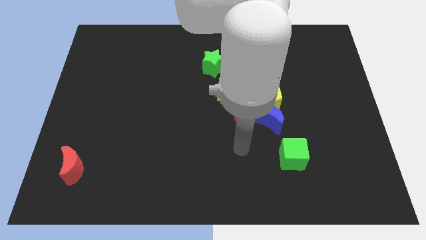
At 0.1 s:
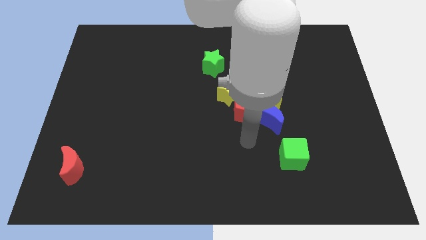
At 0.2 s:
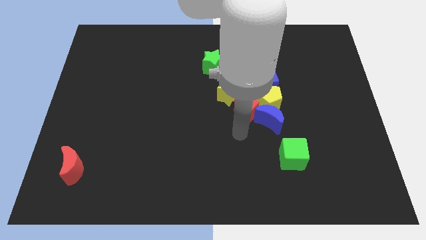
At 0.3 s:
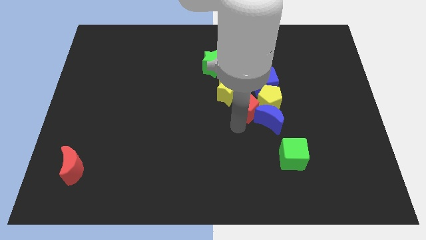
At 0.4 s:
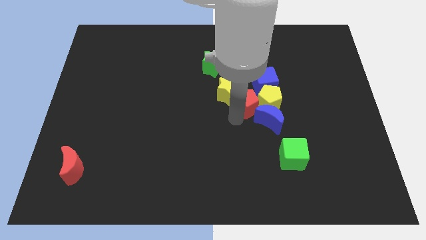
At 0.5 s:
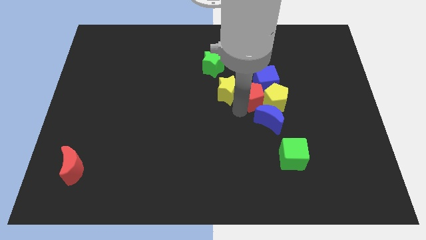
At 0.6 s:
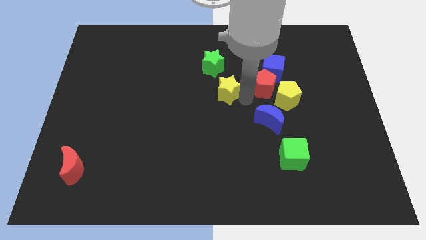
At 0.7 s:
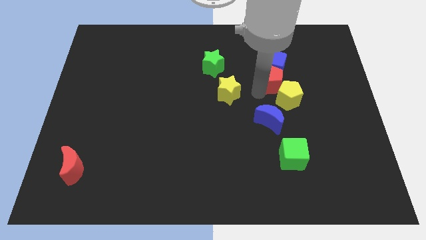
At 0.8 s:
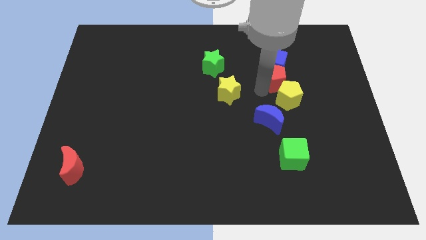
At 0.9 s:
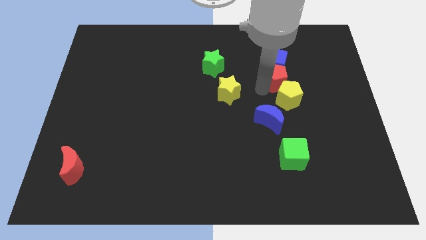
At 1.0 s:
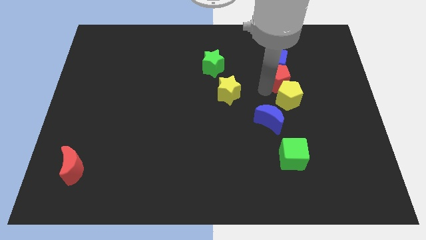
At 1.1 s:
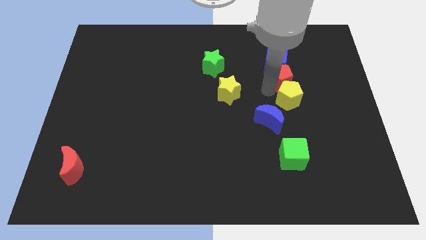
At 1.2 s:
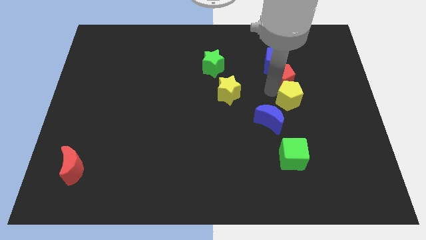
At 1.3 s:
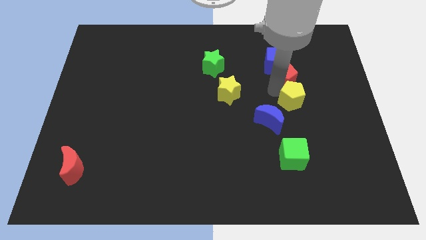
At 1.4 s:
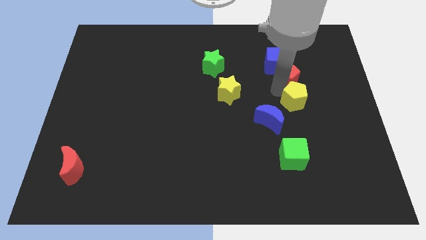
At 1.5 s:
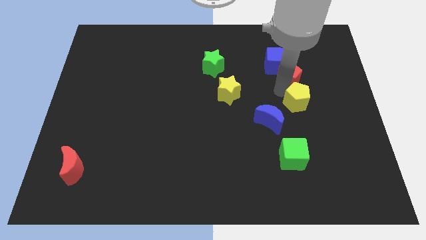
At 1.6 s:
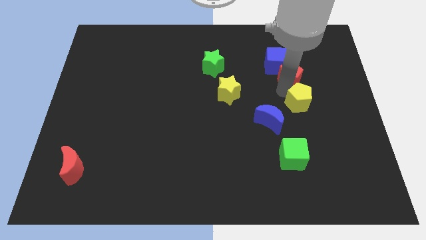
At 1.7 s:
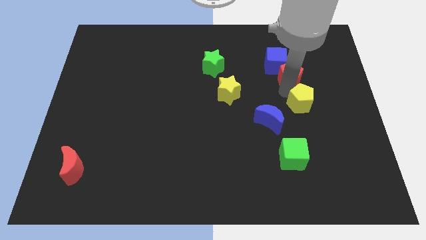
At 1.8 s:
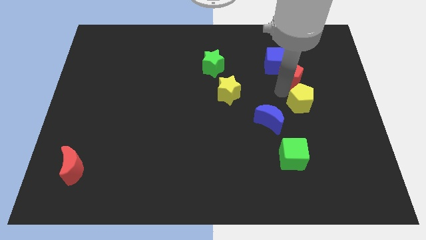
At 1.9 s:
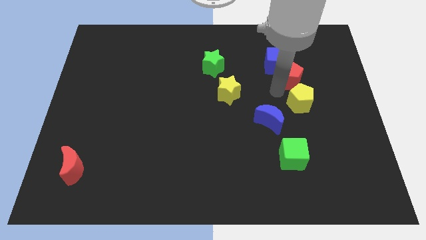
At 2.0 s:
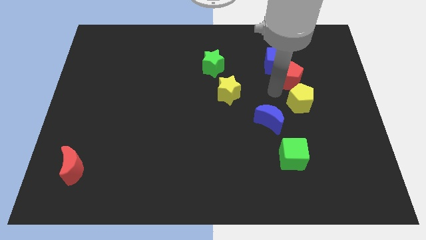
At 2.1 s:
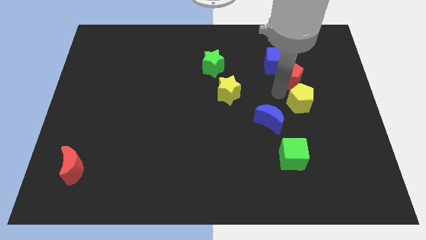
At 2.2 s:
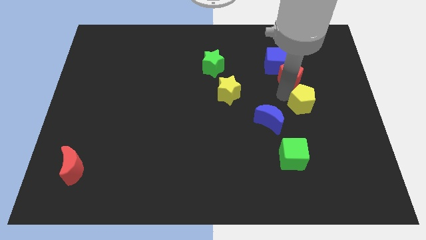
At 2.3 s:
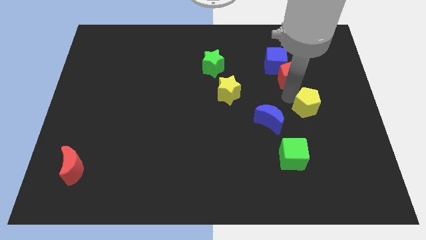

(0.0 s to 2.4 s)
pull the yellow pentagon apart from the group of blocks

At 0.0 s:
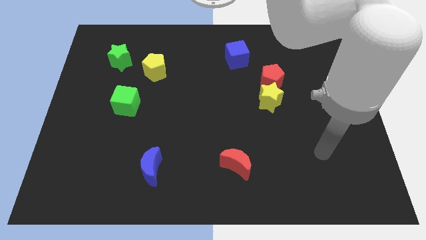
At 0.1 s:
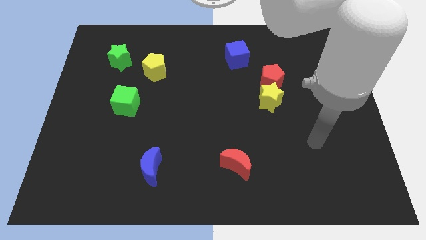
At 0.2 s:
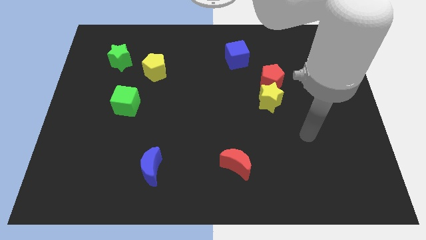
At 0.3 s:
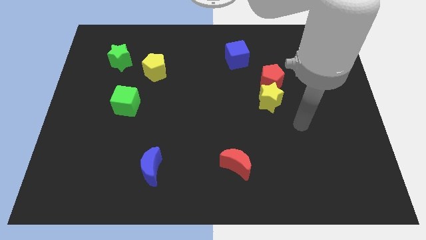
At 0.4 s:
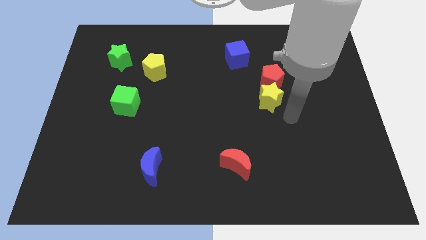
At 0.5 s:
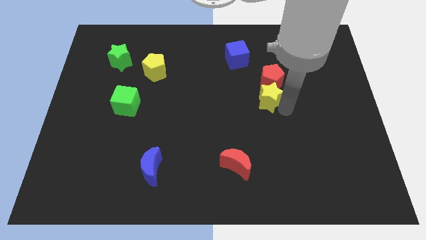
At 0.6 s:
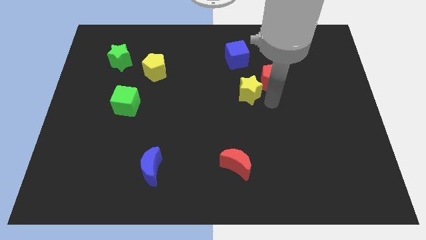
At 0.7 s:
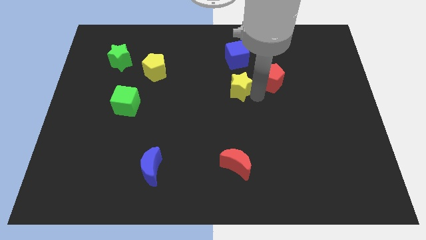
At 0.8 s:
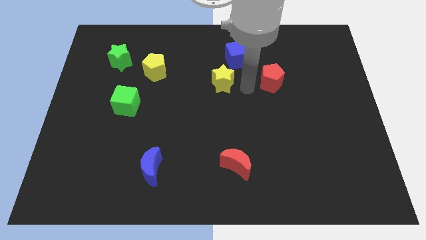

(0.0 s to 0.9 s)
move the red pentagon away from the yellow star

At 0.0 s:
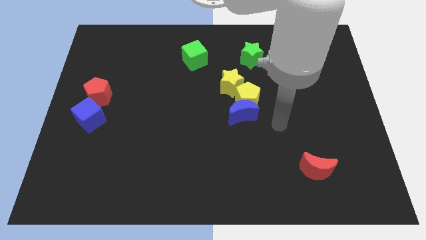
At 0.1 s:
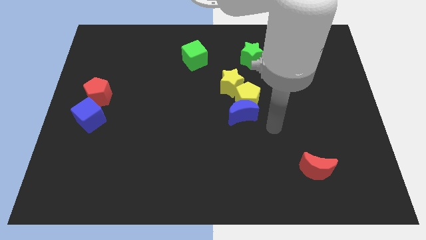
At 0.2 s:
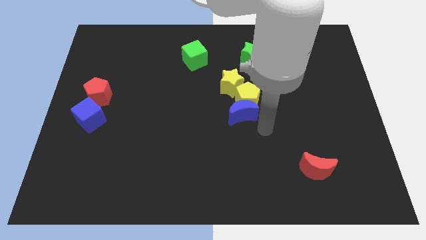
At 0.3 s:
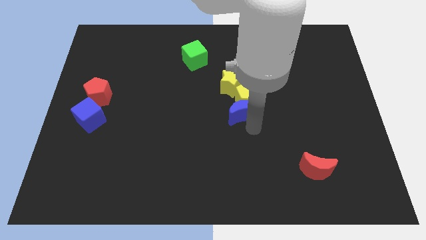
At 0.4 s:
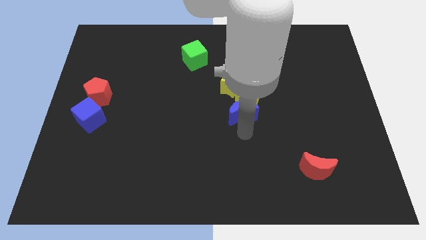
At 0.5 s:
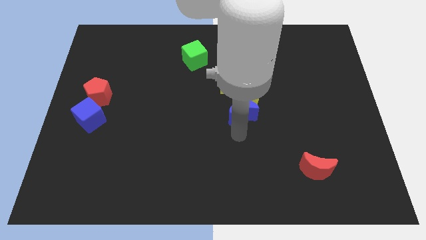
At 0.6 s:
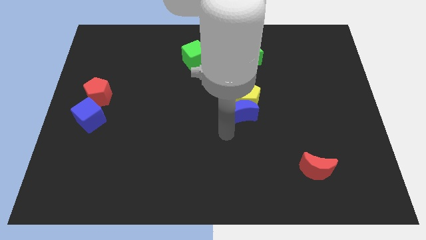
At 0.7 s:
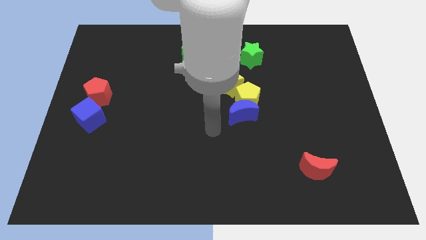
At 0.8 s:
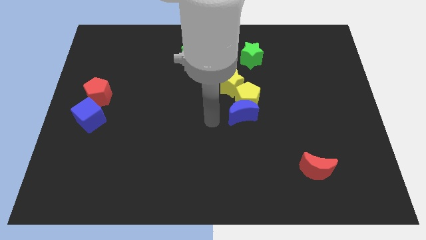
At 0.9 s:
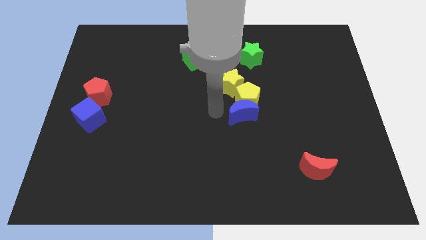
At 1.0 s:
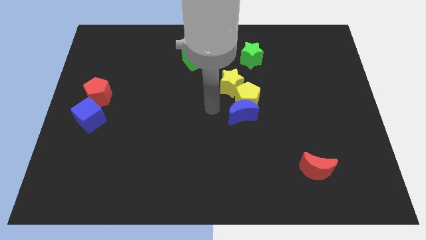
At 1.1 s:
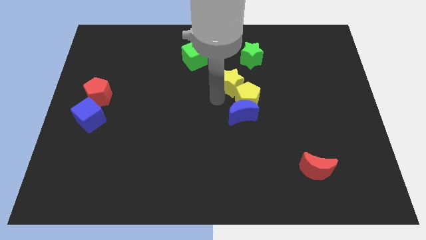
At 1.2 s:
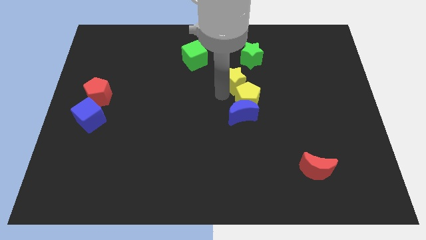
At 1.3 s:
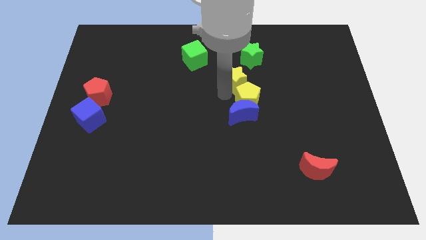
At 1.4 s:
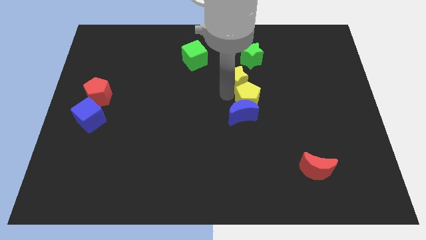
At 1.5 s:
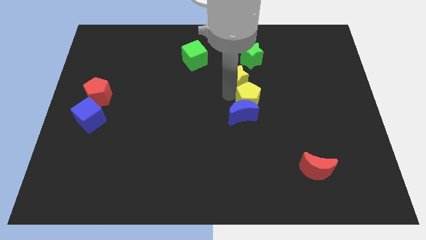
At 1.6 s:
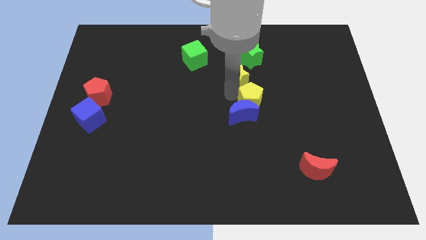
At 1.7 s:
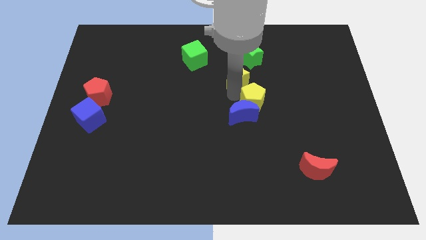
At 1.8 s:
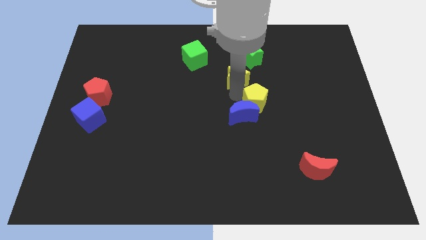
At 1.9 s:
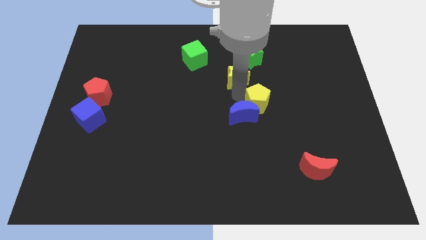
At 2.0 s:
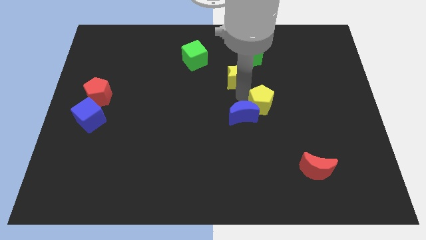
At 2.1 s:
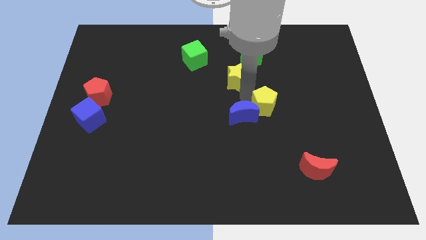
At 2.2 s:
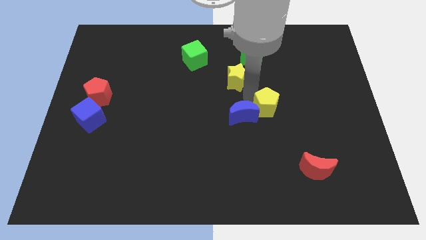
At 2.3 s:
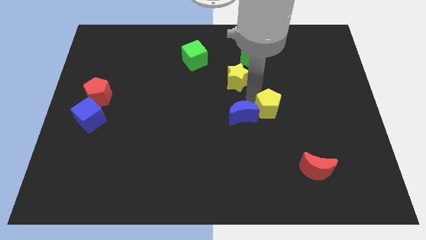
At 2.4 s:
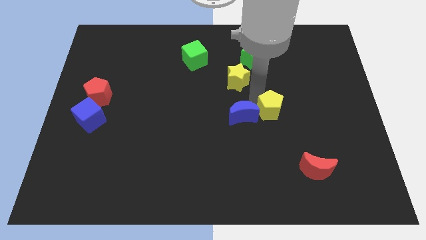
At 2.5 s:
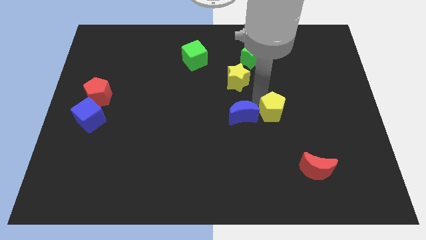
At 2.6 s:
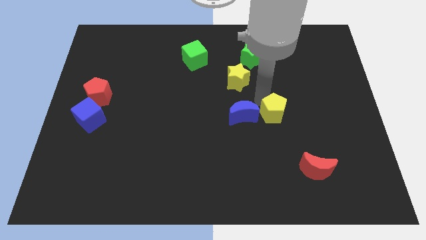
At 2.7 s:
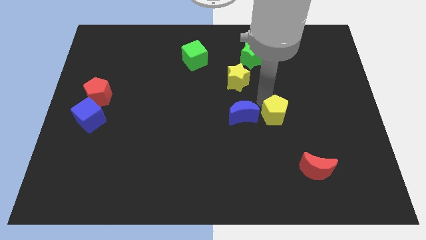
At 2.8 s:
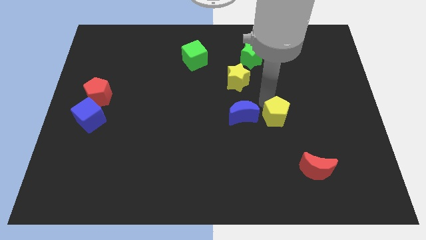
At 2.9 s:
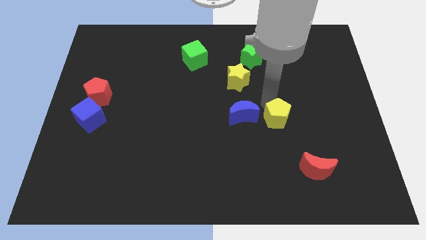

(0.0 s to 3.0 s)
separate the yellow pentagon from the blue moon and yellow star

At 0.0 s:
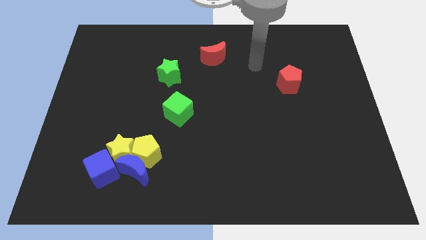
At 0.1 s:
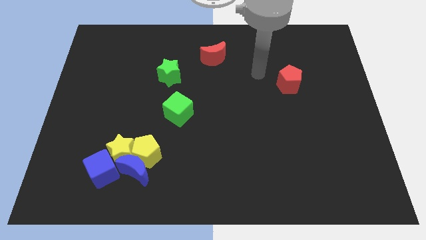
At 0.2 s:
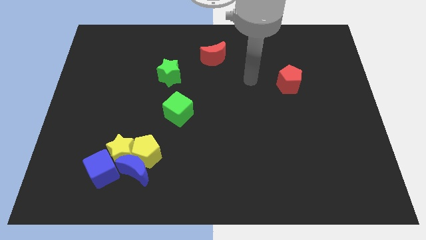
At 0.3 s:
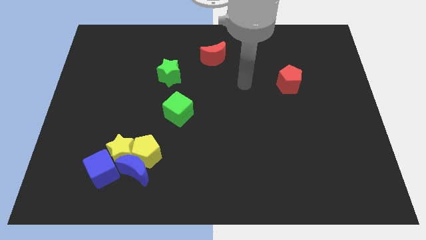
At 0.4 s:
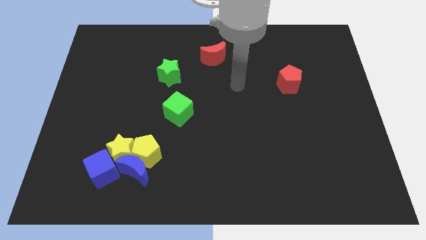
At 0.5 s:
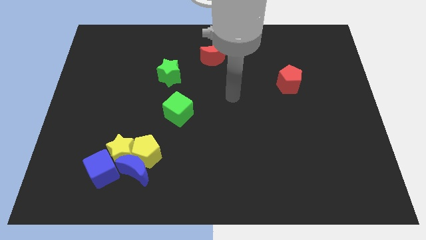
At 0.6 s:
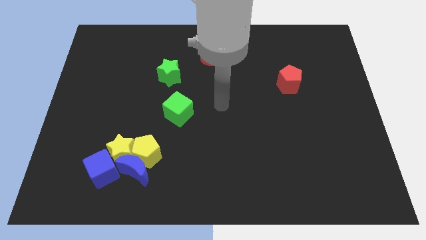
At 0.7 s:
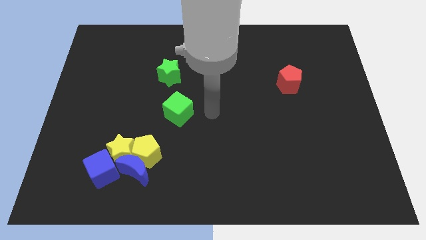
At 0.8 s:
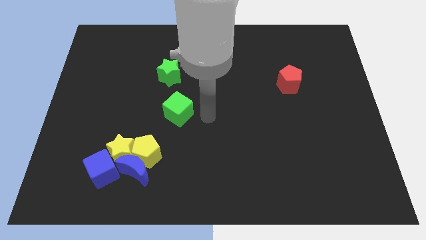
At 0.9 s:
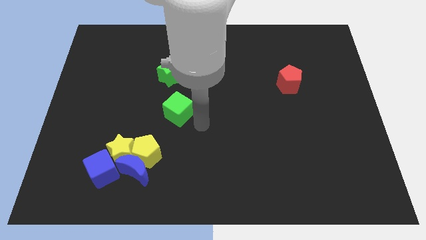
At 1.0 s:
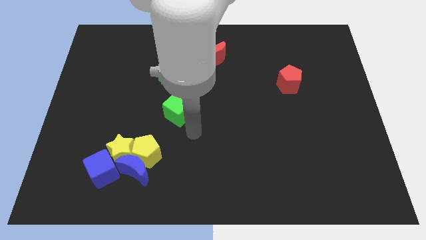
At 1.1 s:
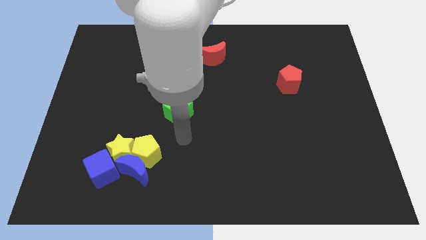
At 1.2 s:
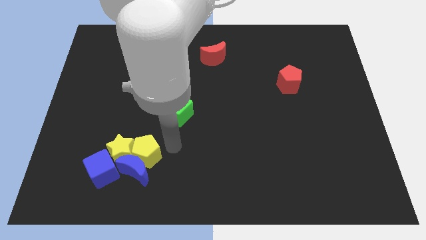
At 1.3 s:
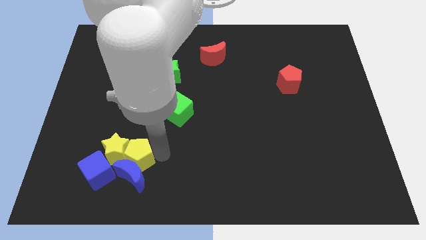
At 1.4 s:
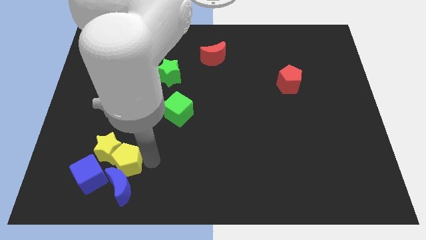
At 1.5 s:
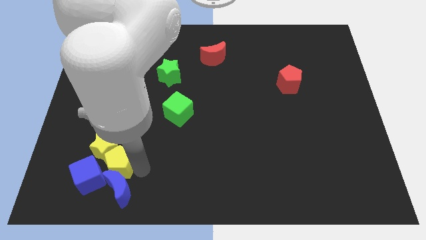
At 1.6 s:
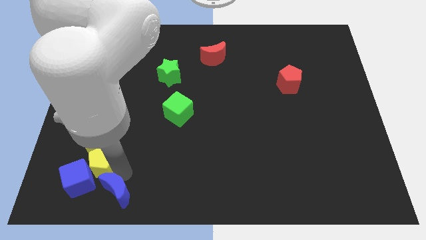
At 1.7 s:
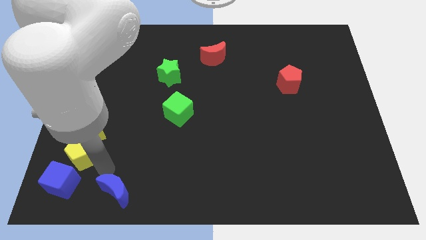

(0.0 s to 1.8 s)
move the yellow star away from the yellow pentagon, blue moon, and blue cube

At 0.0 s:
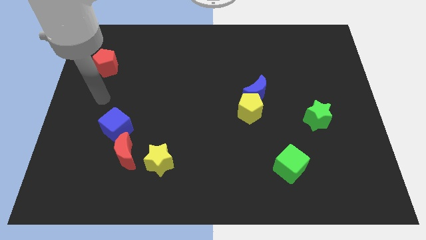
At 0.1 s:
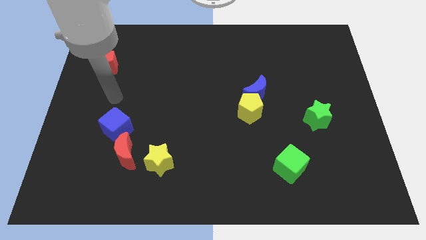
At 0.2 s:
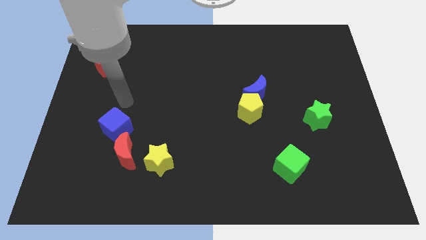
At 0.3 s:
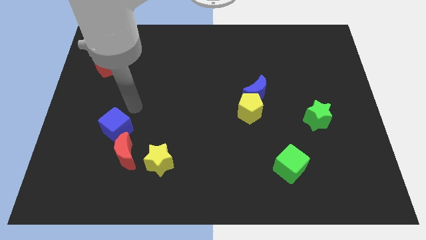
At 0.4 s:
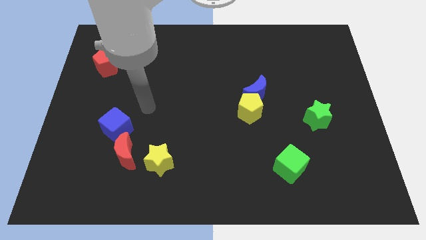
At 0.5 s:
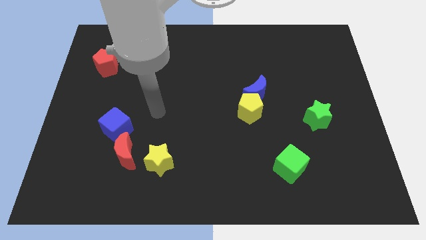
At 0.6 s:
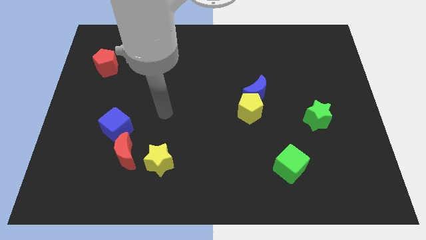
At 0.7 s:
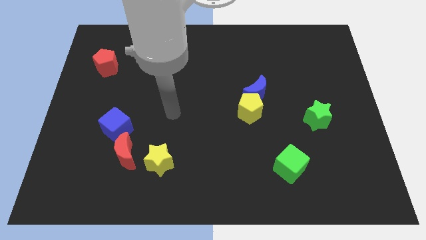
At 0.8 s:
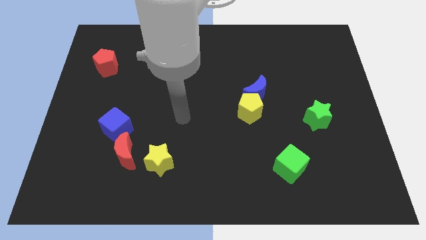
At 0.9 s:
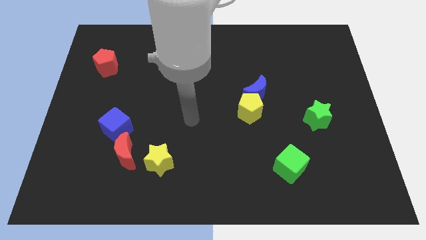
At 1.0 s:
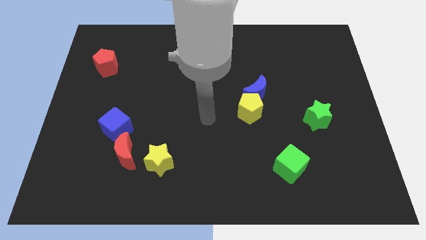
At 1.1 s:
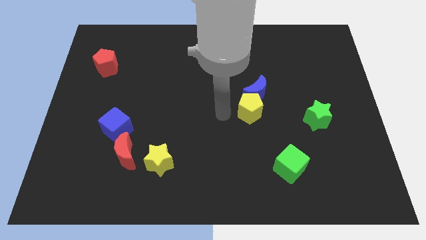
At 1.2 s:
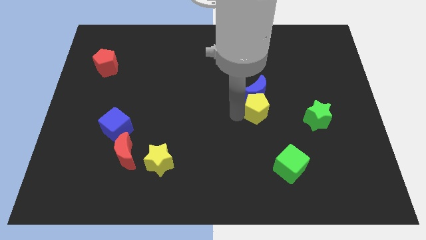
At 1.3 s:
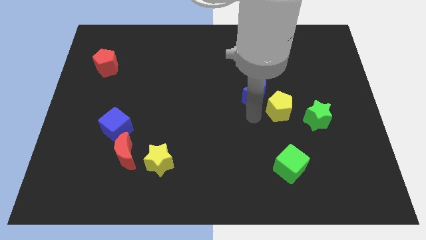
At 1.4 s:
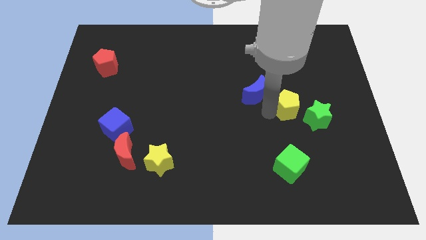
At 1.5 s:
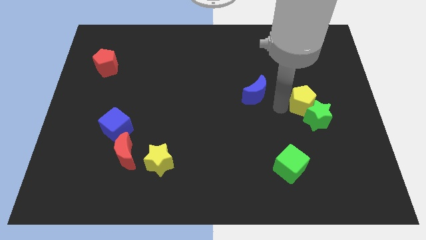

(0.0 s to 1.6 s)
move the blue moon away from the yellow pentagon
